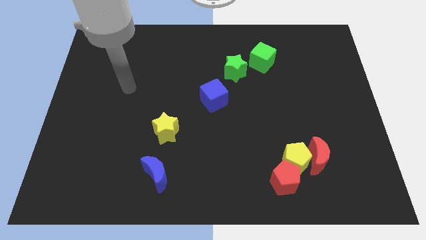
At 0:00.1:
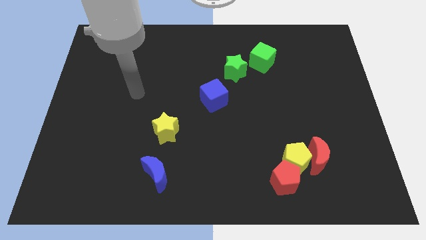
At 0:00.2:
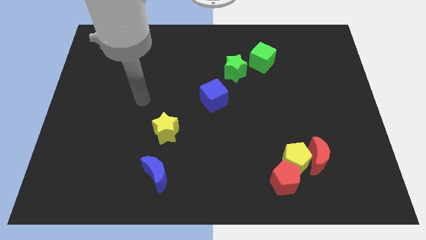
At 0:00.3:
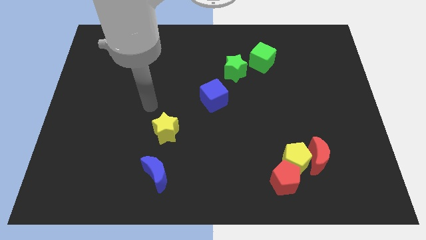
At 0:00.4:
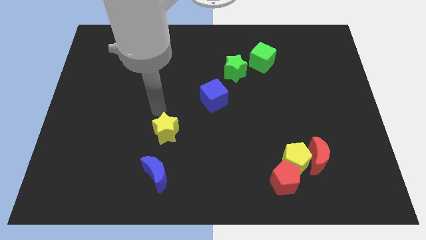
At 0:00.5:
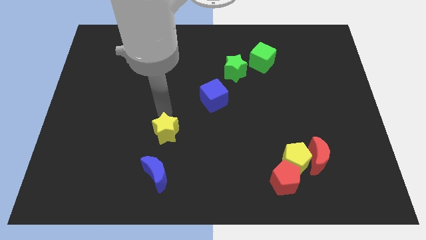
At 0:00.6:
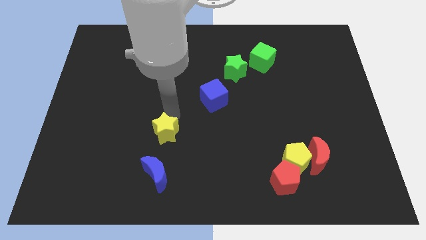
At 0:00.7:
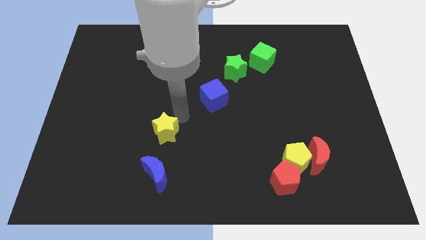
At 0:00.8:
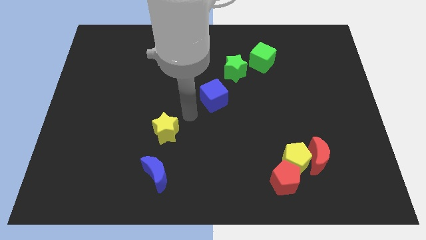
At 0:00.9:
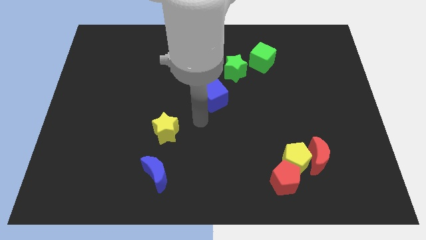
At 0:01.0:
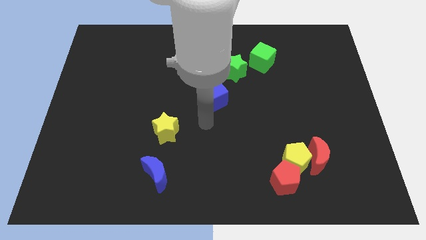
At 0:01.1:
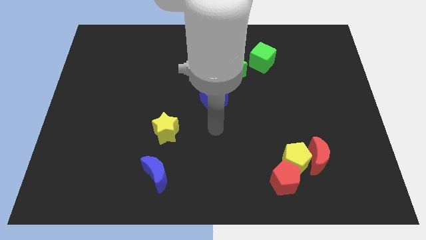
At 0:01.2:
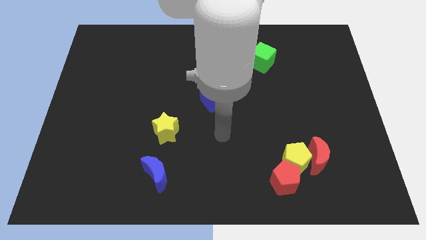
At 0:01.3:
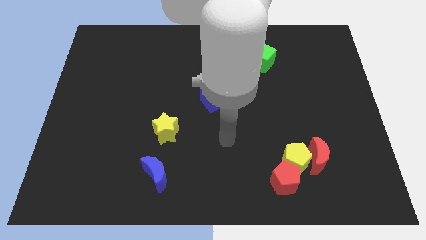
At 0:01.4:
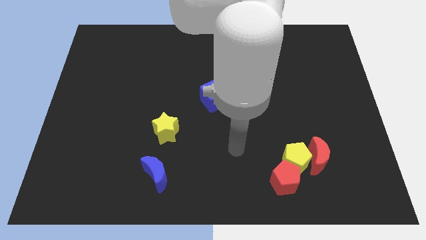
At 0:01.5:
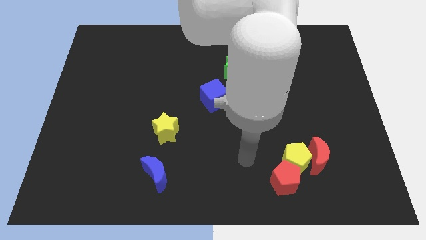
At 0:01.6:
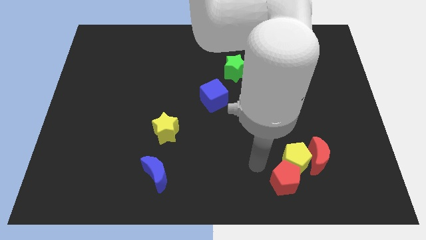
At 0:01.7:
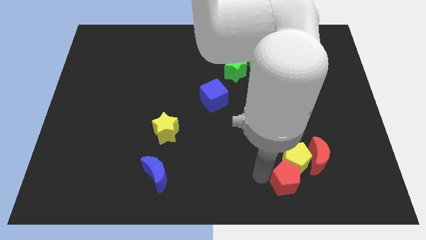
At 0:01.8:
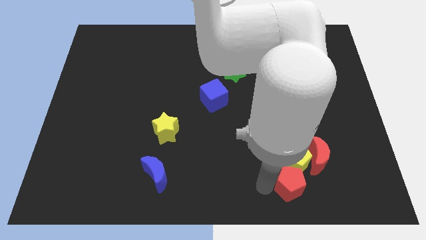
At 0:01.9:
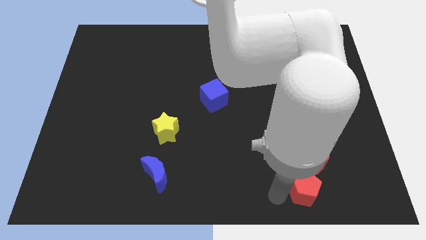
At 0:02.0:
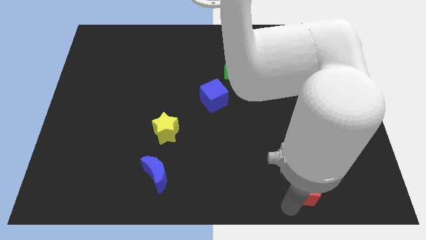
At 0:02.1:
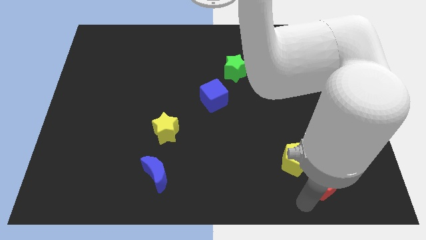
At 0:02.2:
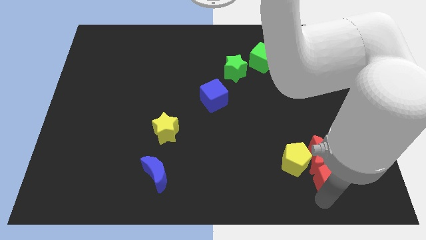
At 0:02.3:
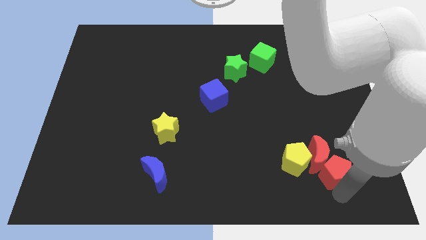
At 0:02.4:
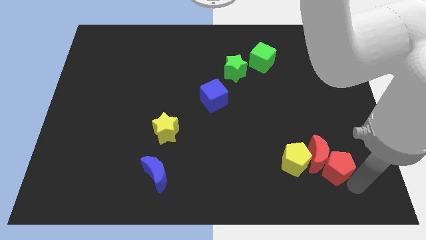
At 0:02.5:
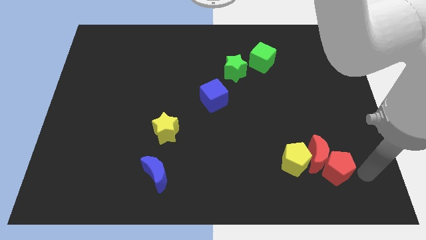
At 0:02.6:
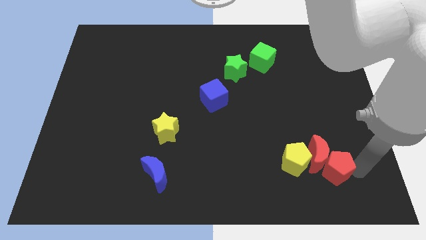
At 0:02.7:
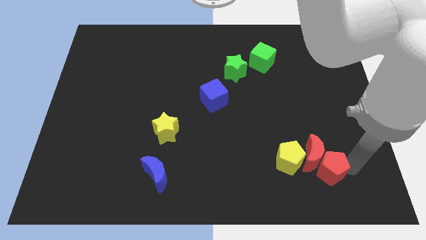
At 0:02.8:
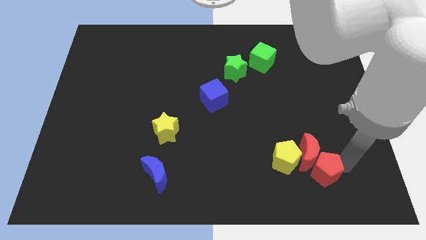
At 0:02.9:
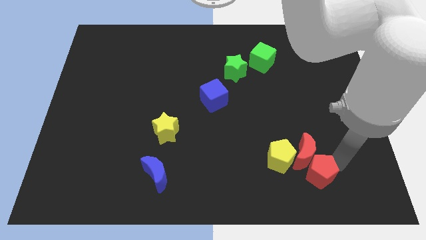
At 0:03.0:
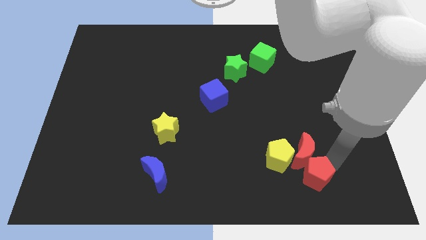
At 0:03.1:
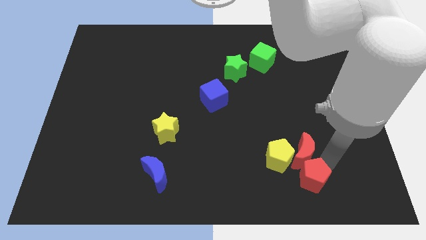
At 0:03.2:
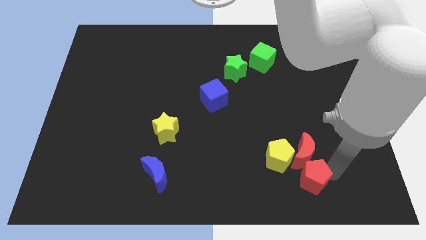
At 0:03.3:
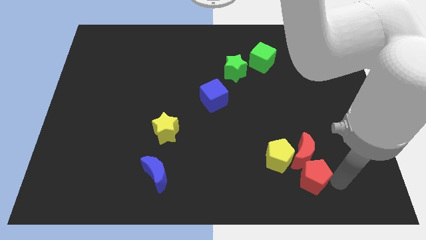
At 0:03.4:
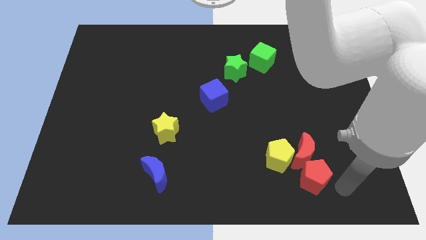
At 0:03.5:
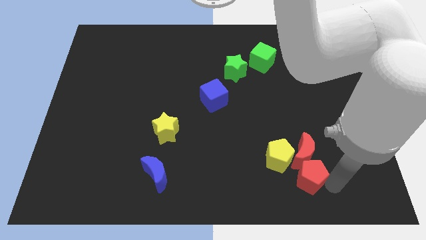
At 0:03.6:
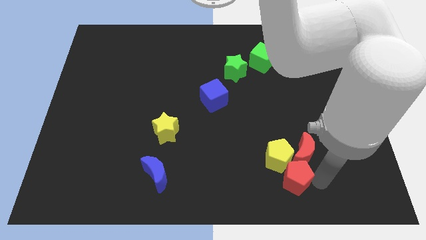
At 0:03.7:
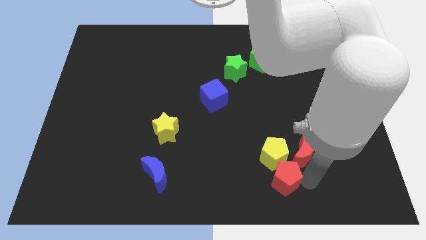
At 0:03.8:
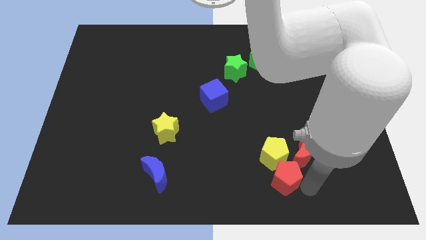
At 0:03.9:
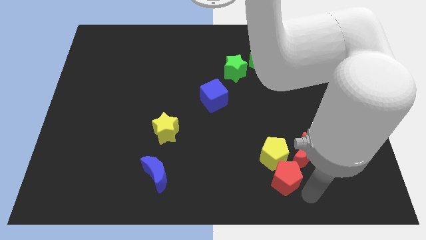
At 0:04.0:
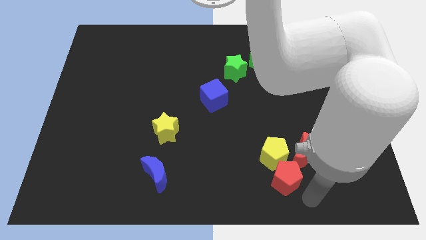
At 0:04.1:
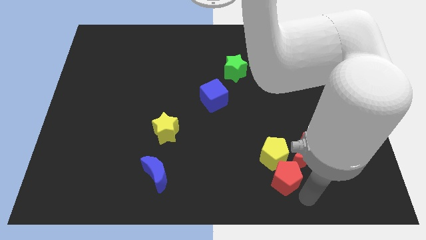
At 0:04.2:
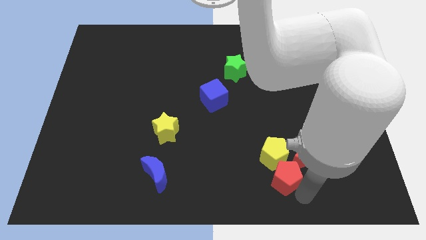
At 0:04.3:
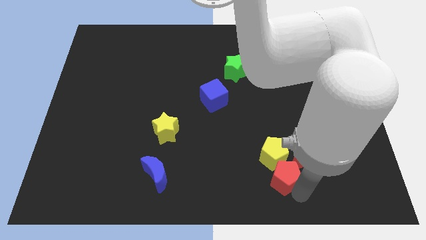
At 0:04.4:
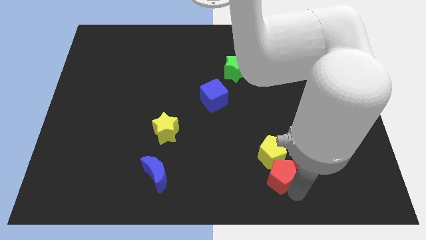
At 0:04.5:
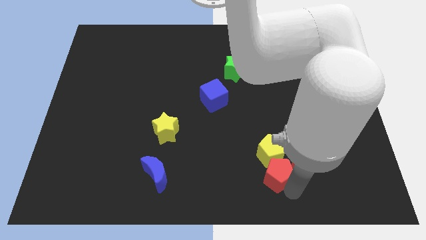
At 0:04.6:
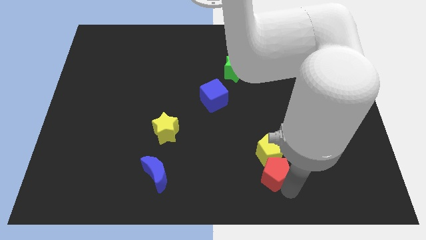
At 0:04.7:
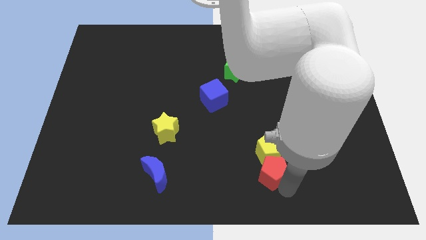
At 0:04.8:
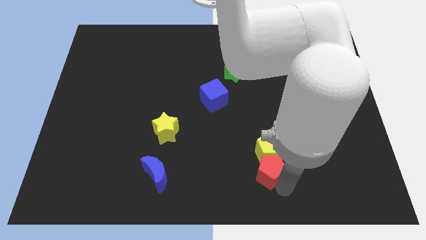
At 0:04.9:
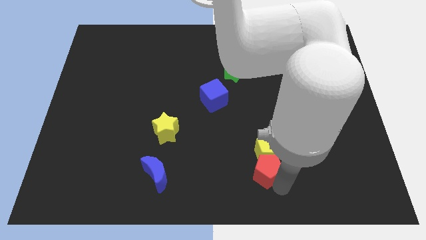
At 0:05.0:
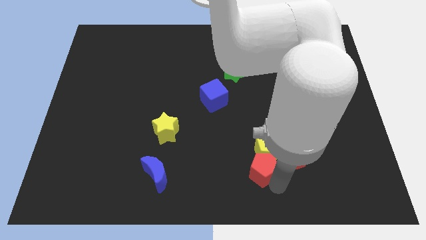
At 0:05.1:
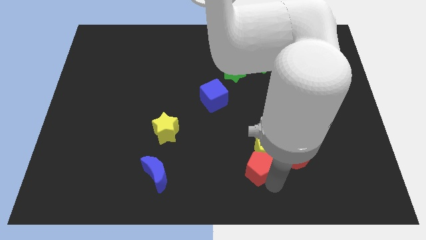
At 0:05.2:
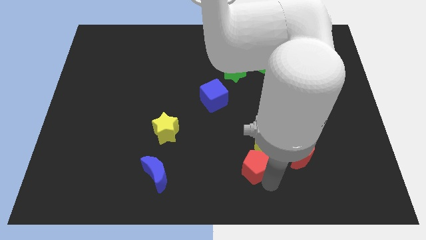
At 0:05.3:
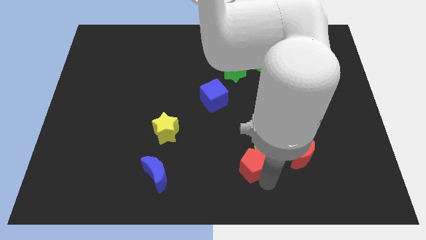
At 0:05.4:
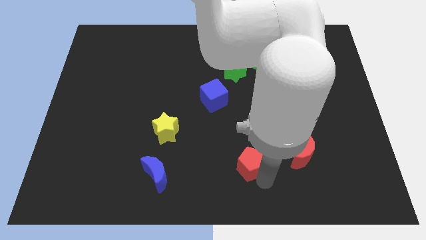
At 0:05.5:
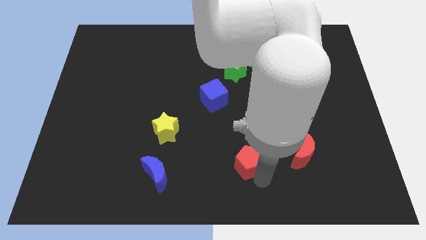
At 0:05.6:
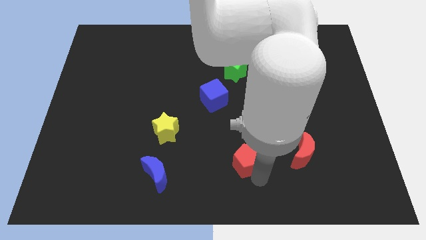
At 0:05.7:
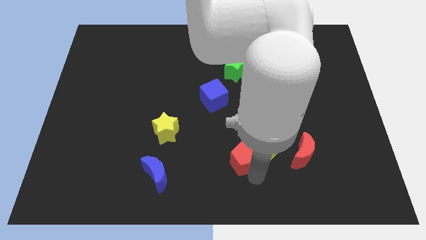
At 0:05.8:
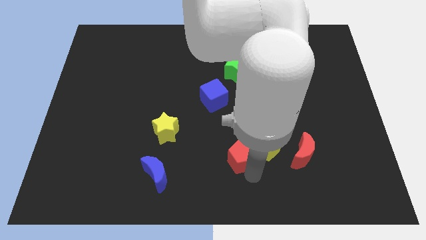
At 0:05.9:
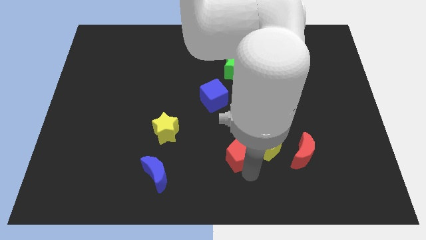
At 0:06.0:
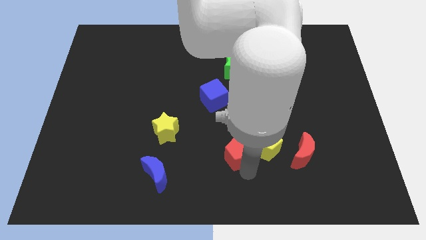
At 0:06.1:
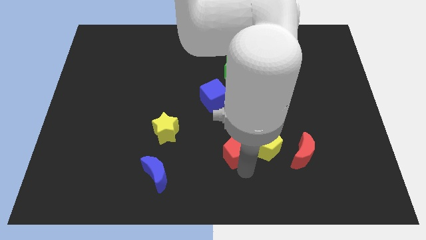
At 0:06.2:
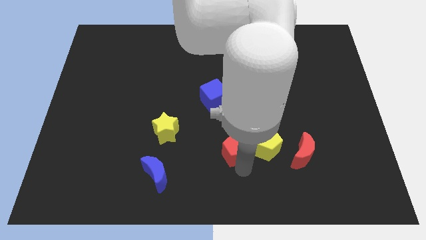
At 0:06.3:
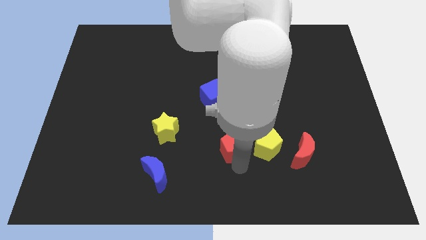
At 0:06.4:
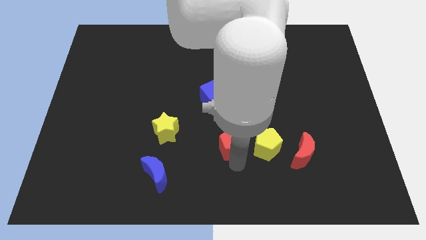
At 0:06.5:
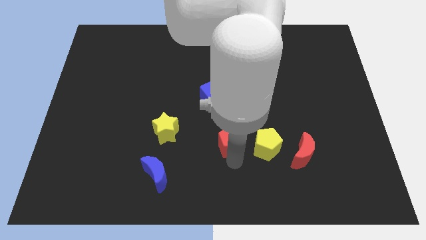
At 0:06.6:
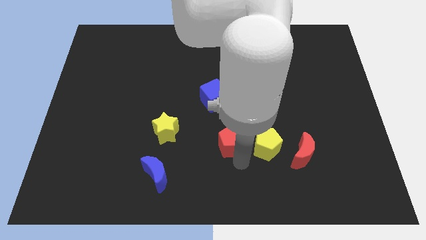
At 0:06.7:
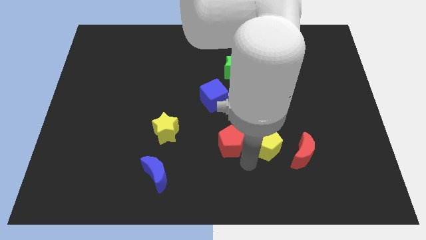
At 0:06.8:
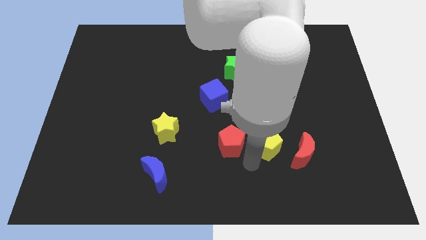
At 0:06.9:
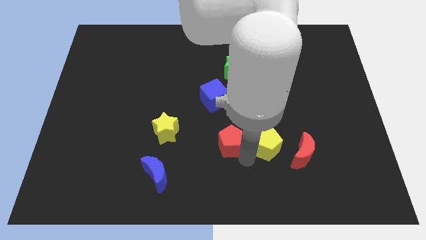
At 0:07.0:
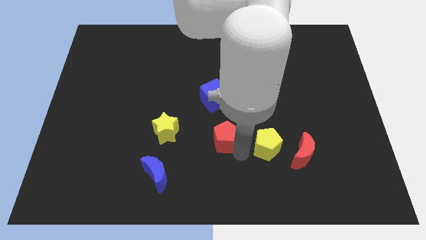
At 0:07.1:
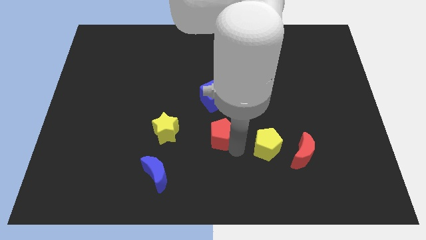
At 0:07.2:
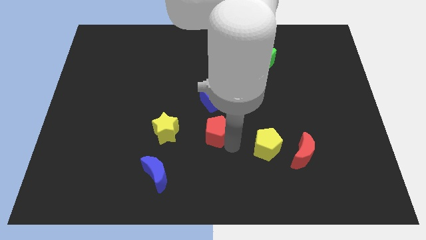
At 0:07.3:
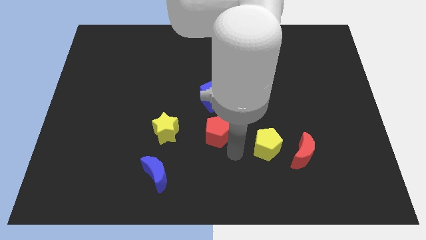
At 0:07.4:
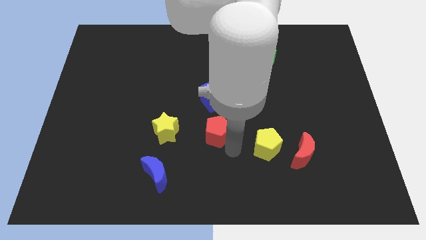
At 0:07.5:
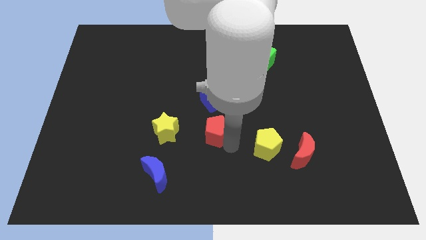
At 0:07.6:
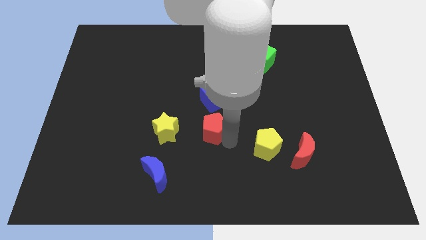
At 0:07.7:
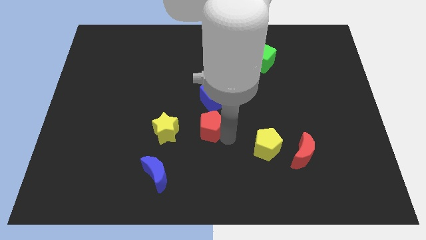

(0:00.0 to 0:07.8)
move the red pentagon upwards and left diagonally

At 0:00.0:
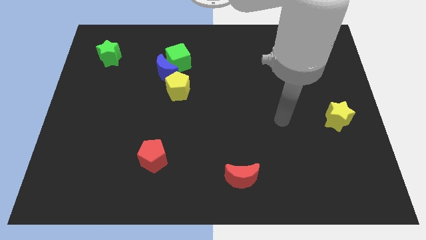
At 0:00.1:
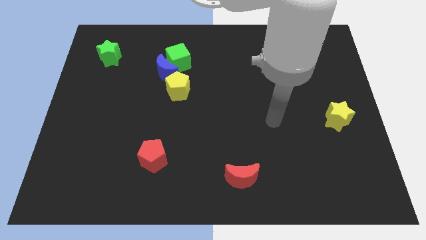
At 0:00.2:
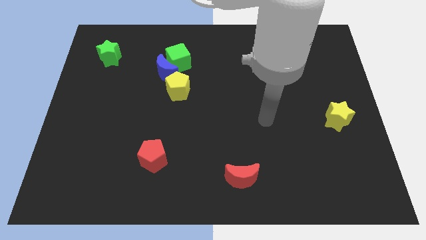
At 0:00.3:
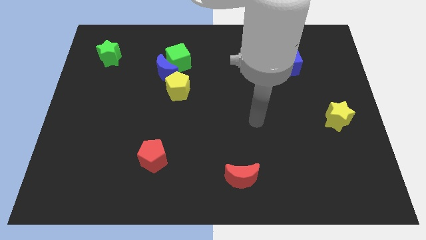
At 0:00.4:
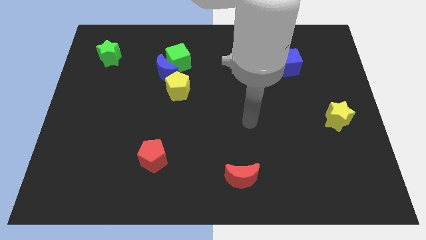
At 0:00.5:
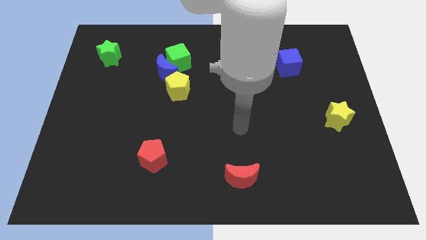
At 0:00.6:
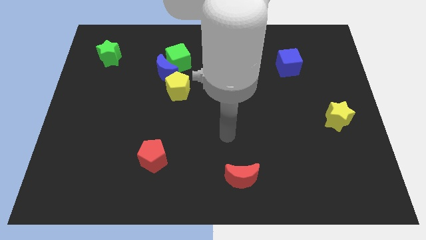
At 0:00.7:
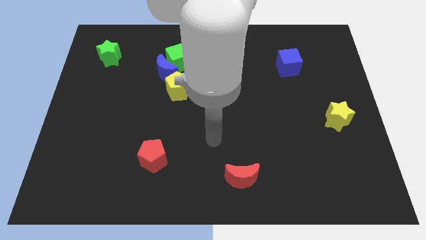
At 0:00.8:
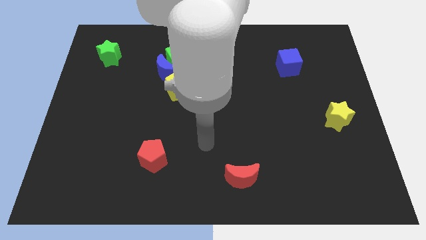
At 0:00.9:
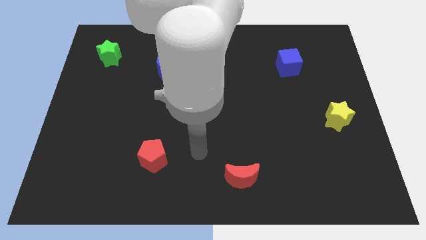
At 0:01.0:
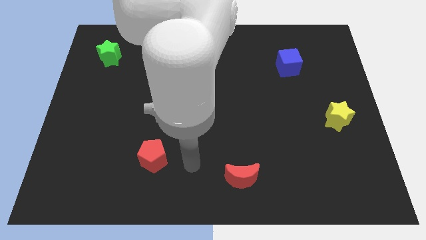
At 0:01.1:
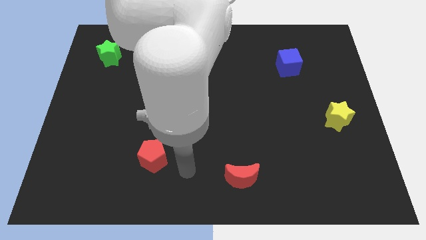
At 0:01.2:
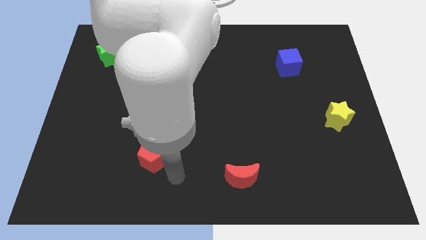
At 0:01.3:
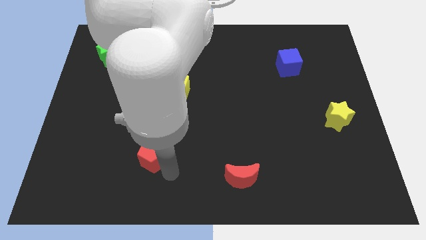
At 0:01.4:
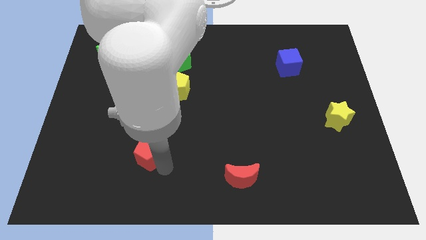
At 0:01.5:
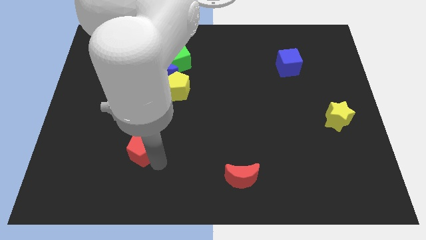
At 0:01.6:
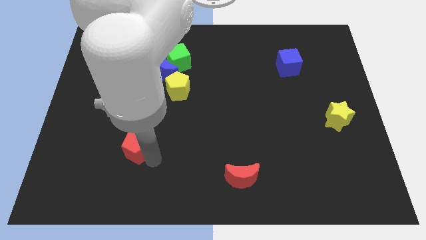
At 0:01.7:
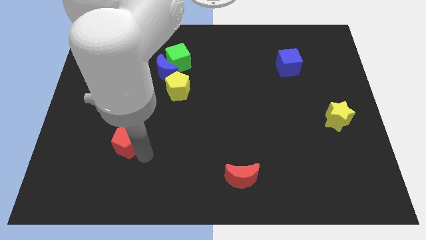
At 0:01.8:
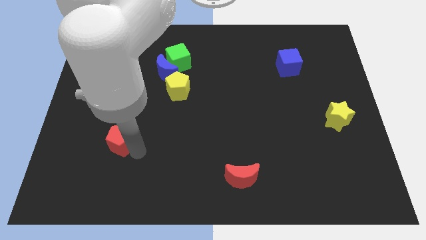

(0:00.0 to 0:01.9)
push the red pentagon up and left diagonally a little bit
